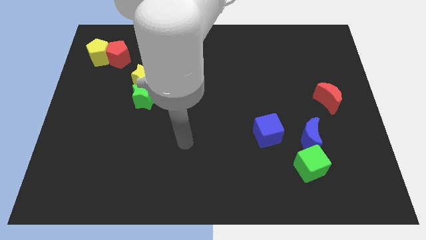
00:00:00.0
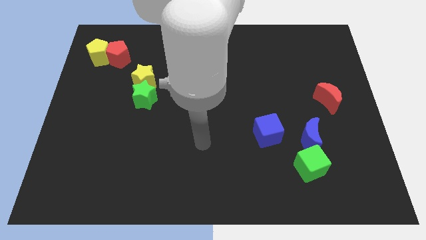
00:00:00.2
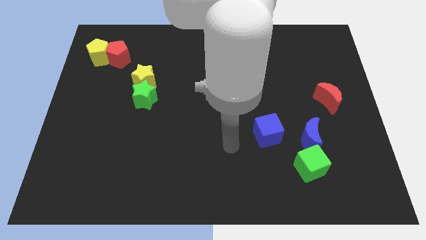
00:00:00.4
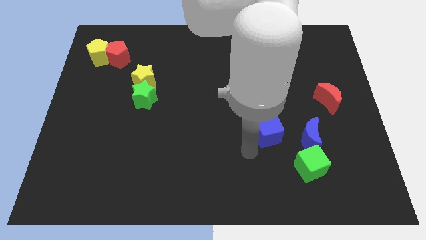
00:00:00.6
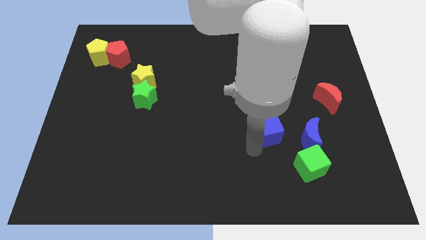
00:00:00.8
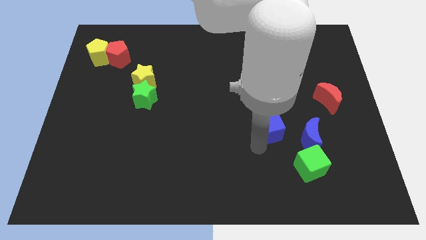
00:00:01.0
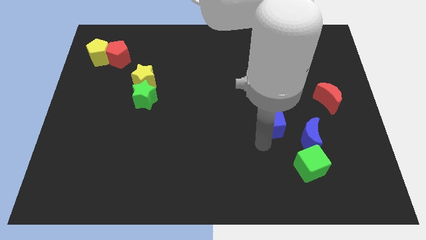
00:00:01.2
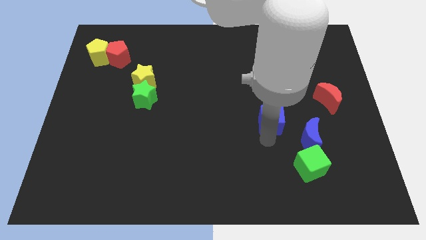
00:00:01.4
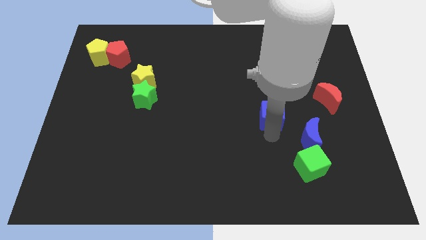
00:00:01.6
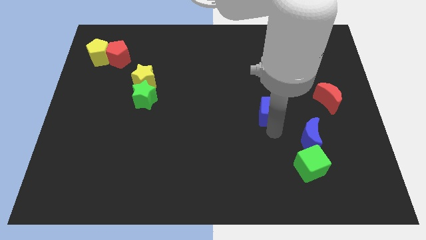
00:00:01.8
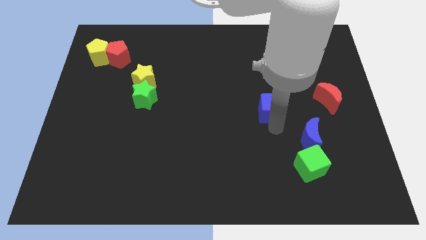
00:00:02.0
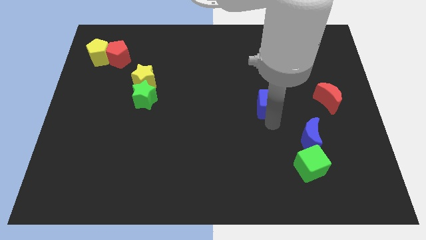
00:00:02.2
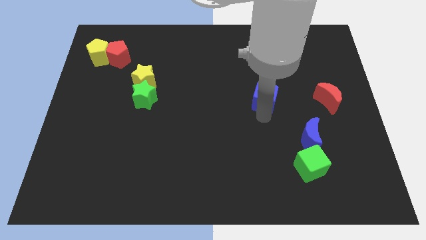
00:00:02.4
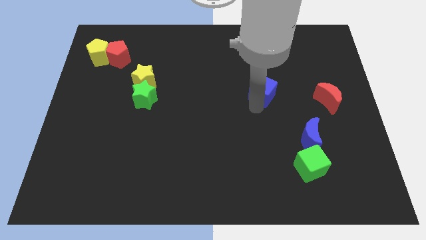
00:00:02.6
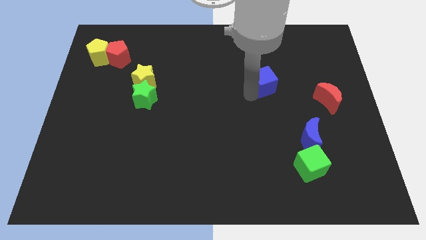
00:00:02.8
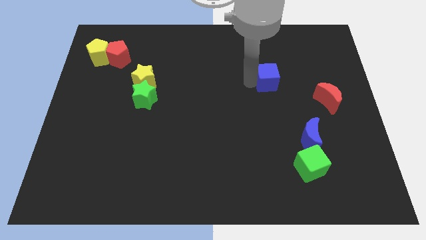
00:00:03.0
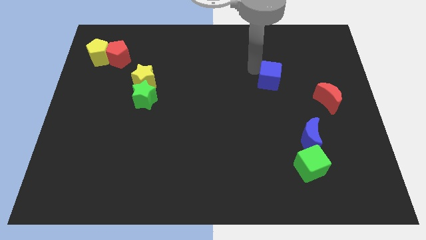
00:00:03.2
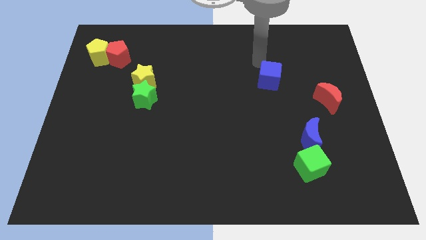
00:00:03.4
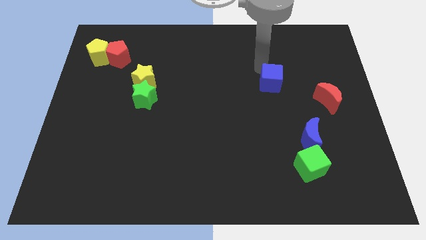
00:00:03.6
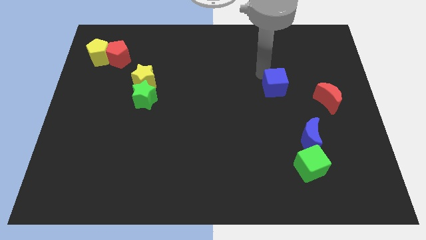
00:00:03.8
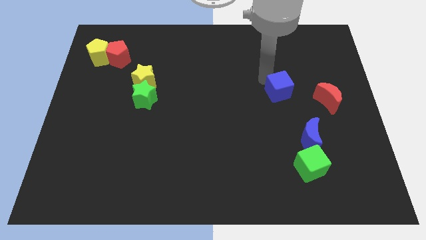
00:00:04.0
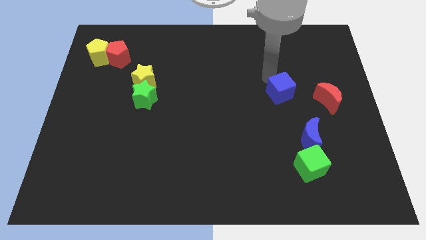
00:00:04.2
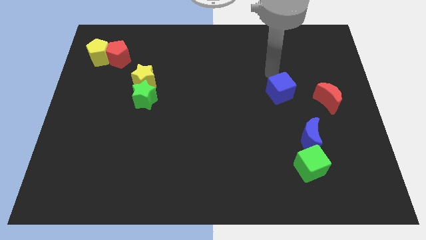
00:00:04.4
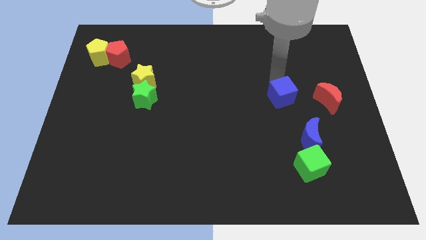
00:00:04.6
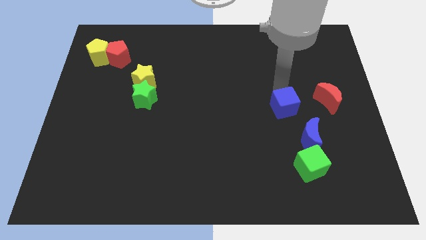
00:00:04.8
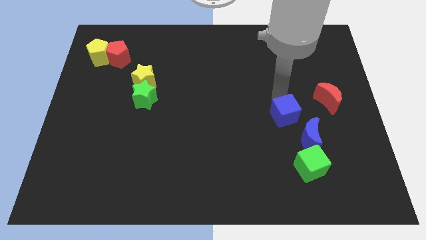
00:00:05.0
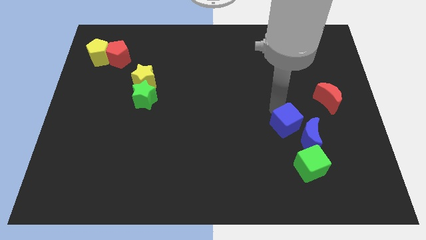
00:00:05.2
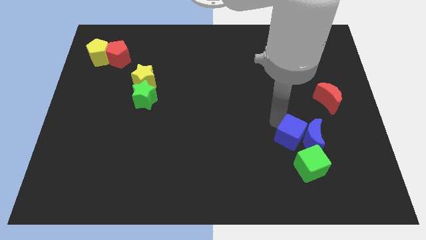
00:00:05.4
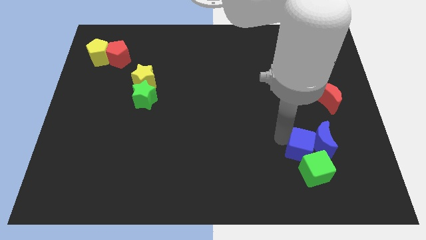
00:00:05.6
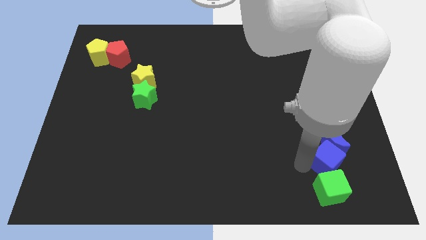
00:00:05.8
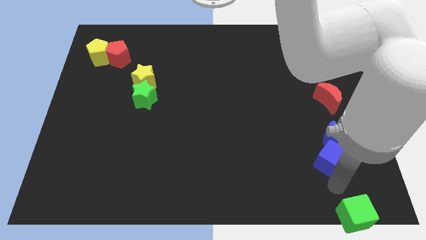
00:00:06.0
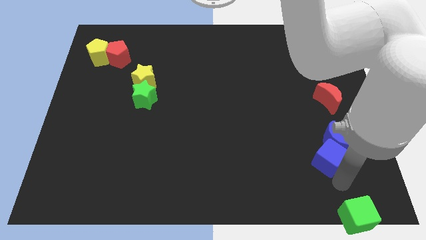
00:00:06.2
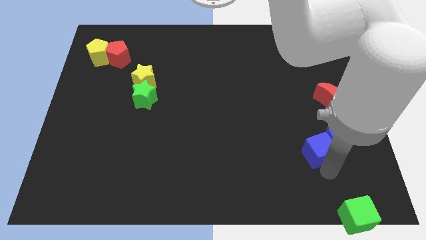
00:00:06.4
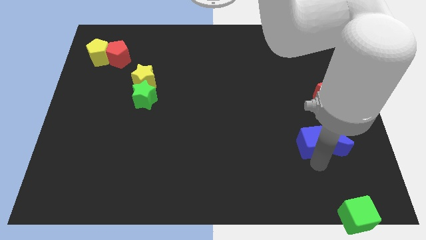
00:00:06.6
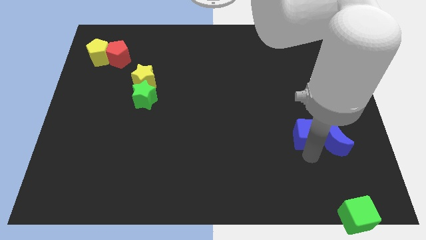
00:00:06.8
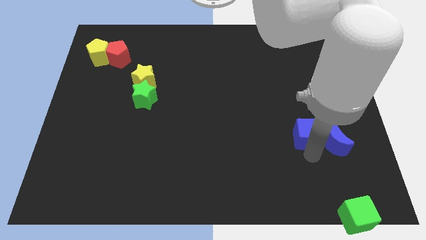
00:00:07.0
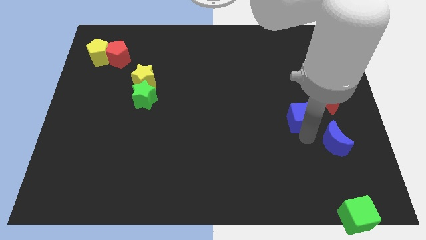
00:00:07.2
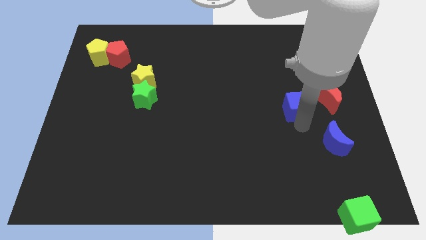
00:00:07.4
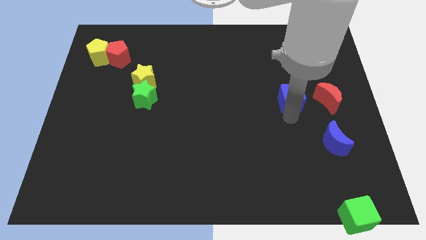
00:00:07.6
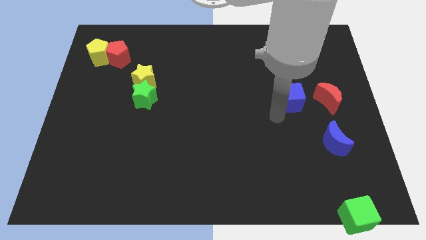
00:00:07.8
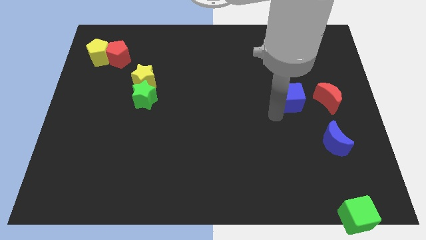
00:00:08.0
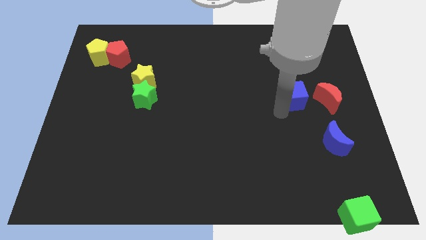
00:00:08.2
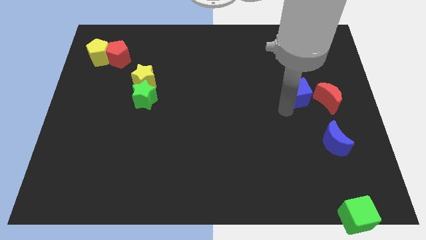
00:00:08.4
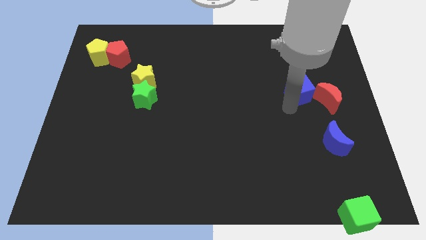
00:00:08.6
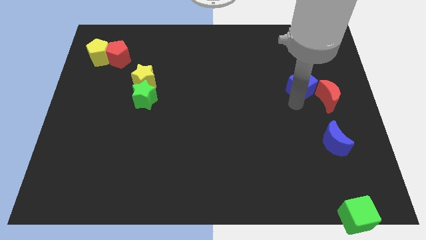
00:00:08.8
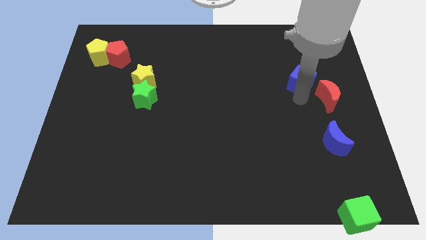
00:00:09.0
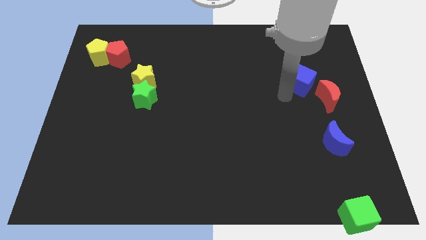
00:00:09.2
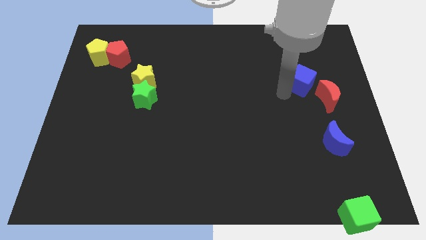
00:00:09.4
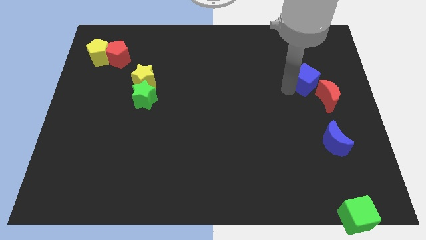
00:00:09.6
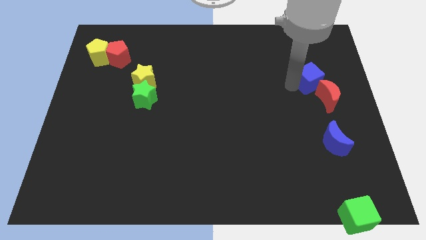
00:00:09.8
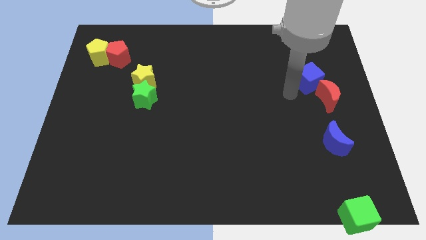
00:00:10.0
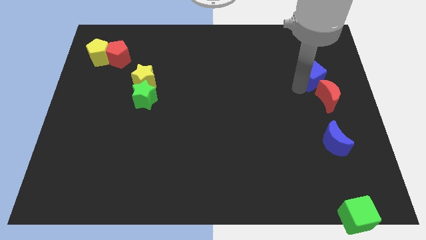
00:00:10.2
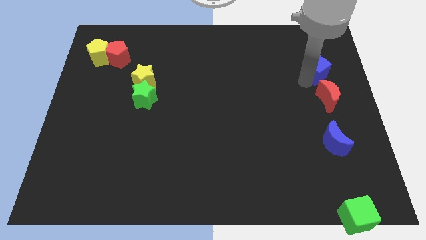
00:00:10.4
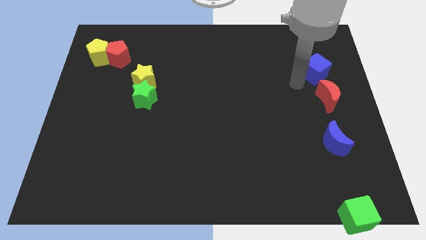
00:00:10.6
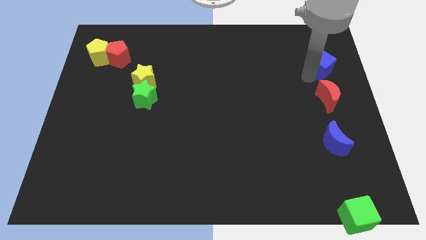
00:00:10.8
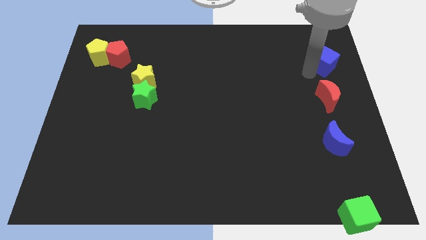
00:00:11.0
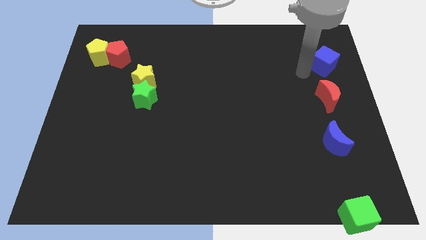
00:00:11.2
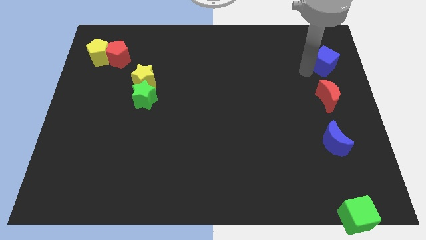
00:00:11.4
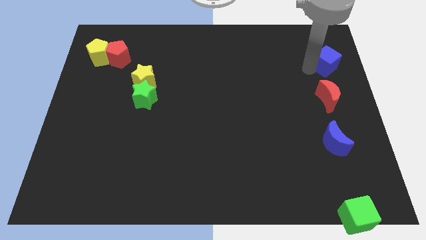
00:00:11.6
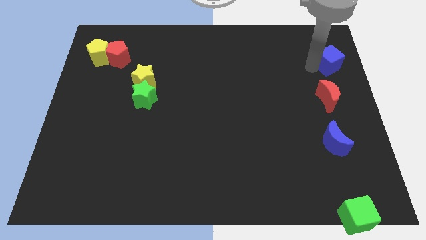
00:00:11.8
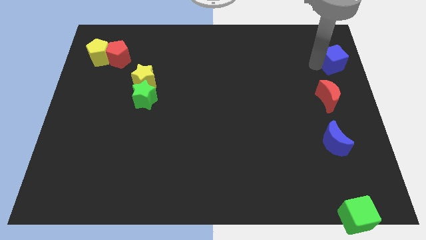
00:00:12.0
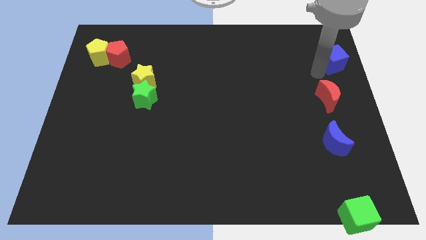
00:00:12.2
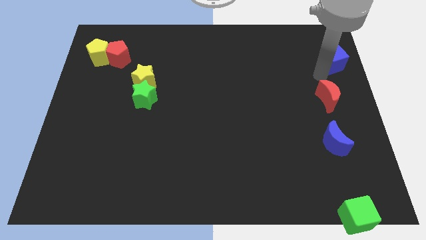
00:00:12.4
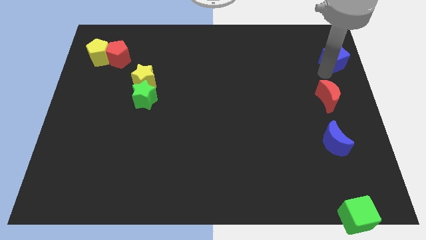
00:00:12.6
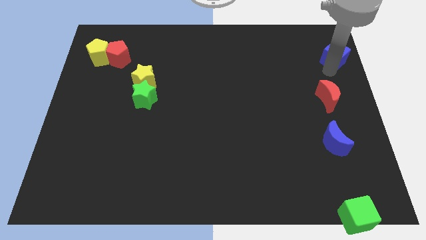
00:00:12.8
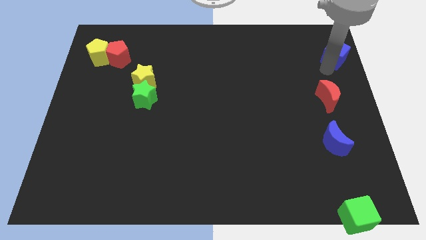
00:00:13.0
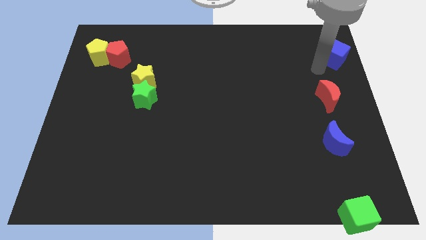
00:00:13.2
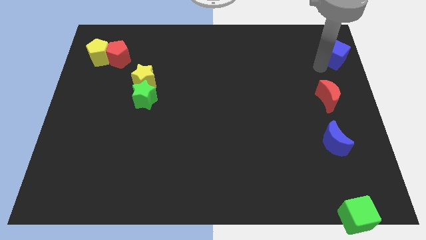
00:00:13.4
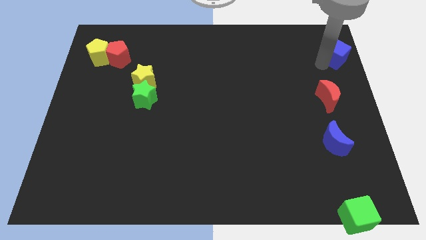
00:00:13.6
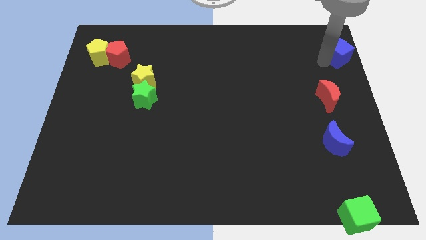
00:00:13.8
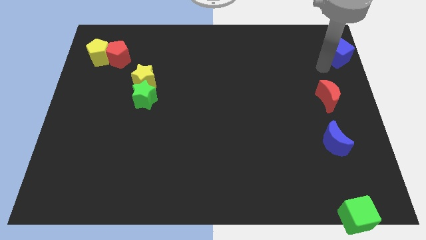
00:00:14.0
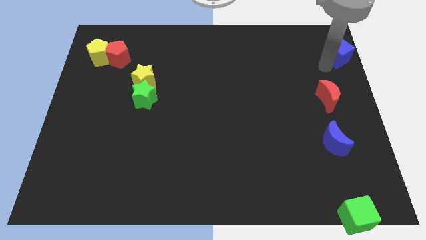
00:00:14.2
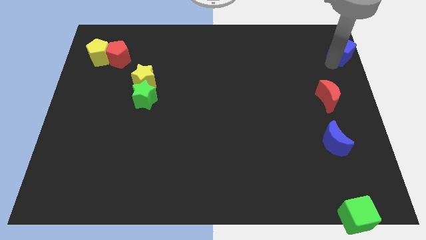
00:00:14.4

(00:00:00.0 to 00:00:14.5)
put the blue cube to the top right corner

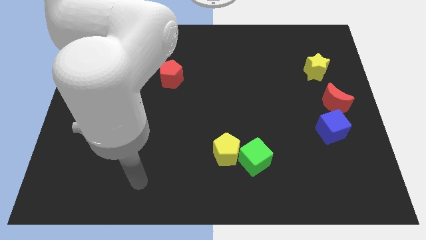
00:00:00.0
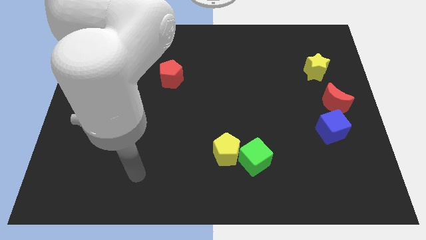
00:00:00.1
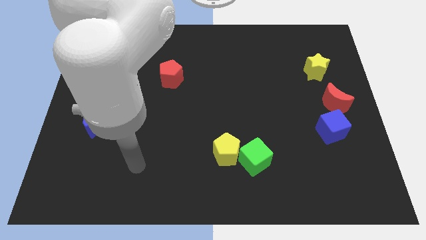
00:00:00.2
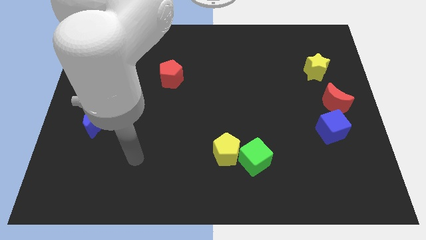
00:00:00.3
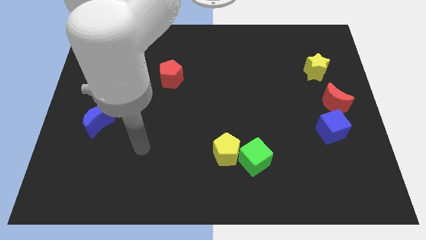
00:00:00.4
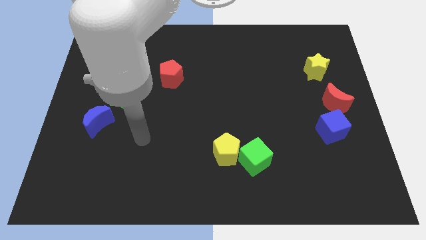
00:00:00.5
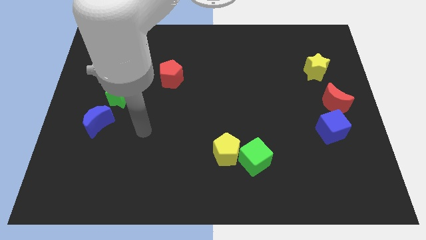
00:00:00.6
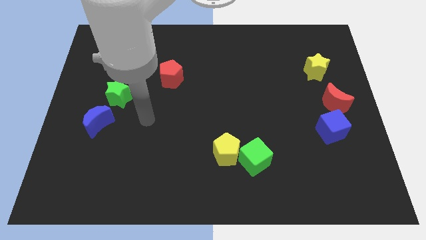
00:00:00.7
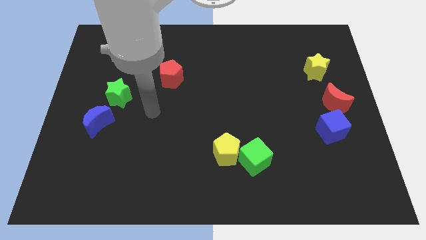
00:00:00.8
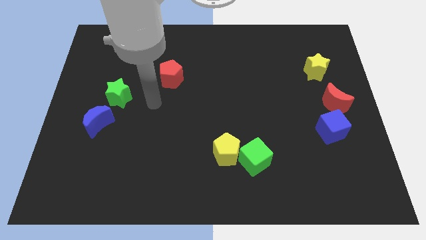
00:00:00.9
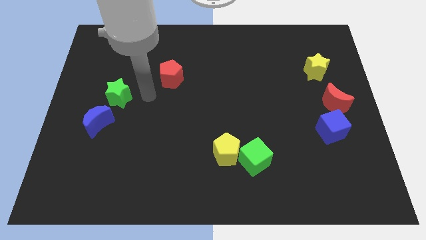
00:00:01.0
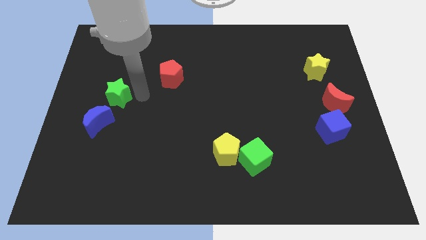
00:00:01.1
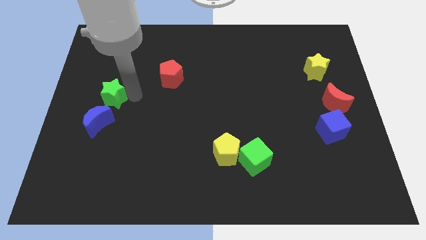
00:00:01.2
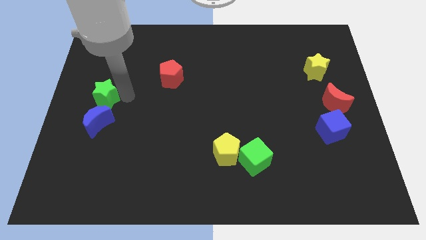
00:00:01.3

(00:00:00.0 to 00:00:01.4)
put the green star to the center left
